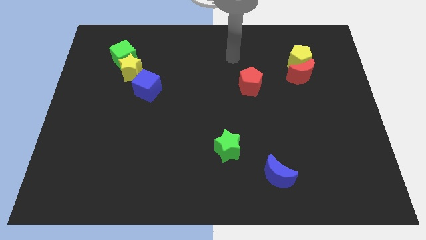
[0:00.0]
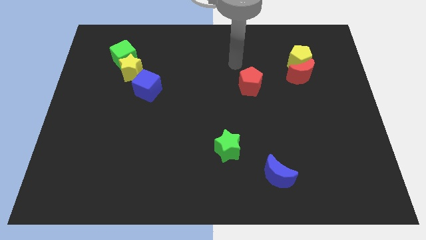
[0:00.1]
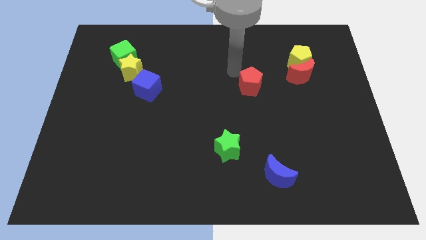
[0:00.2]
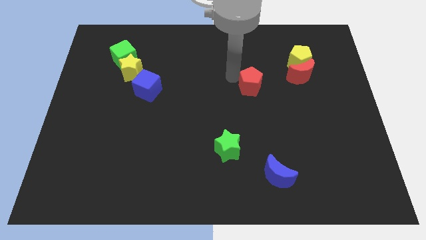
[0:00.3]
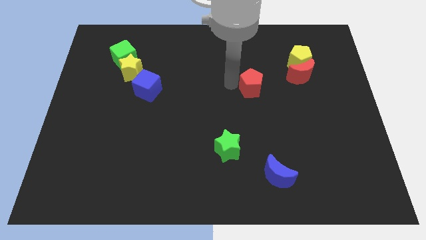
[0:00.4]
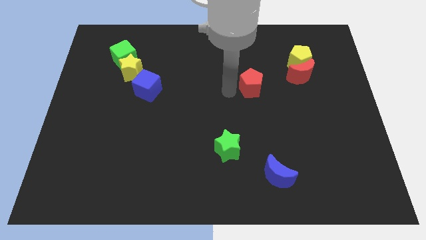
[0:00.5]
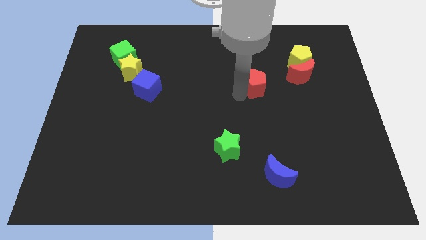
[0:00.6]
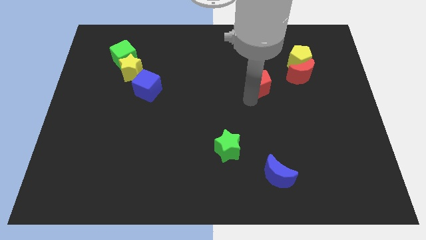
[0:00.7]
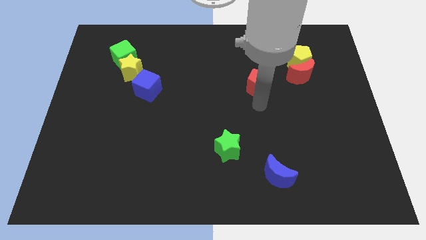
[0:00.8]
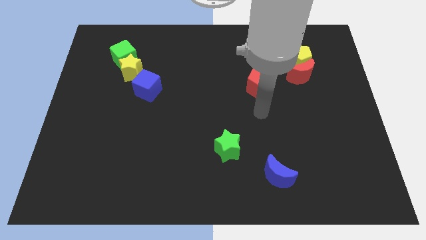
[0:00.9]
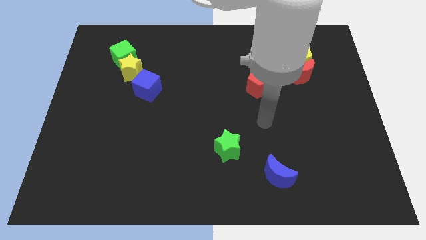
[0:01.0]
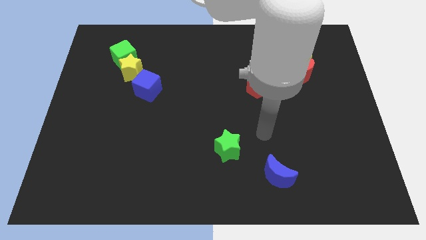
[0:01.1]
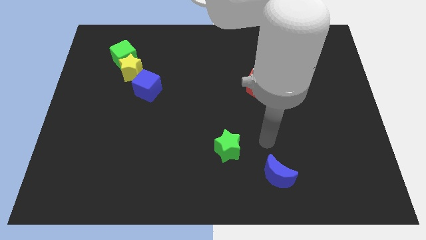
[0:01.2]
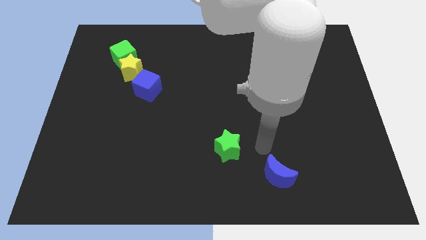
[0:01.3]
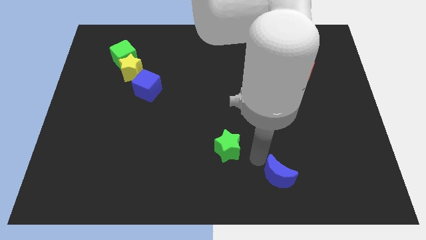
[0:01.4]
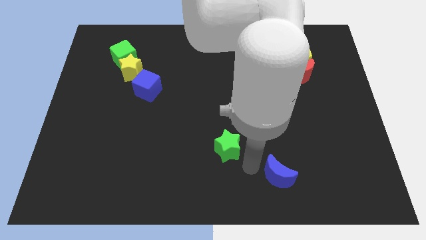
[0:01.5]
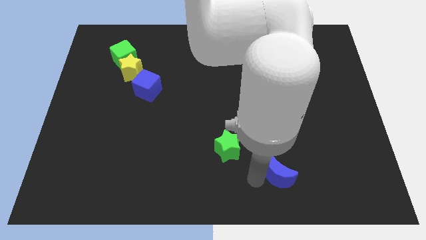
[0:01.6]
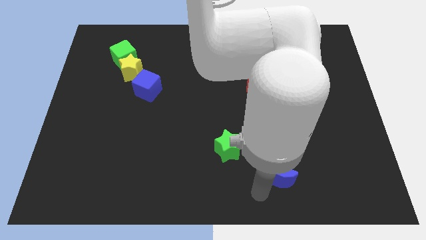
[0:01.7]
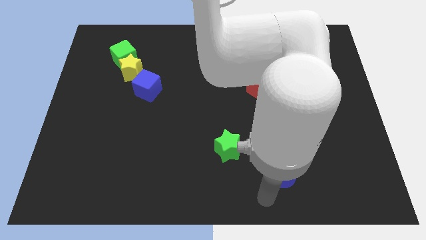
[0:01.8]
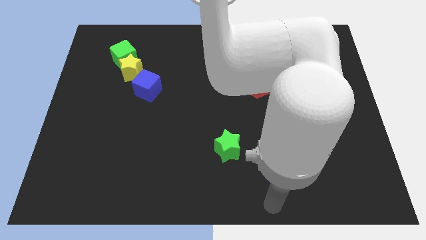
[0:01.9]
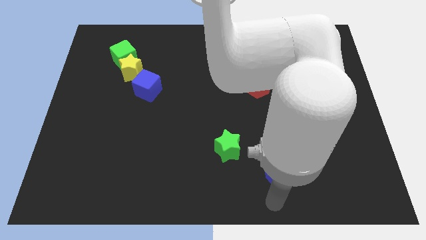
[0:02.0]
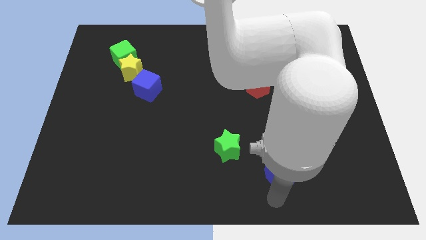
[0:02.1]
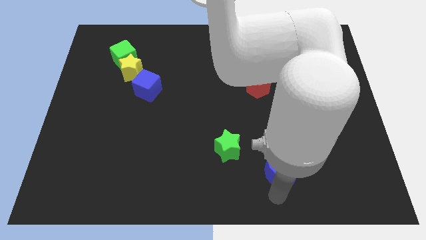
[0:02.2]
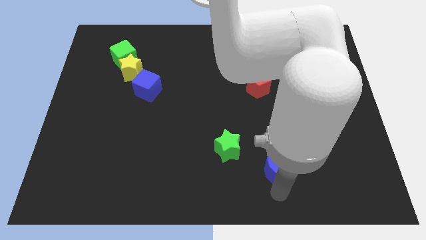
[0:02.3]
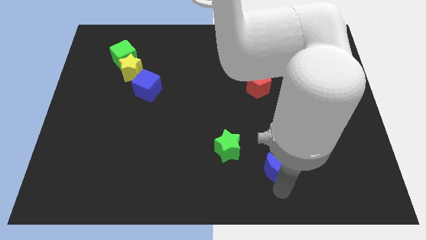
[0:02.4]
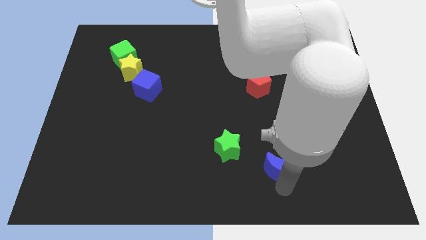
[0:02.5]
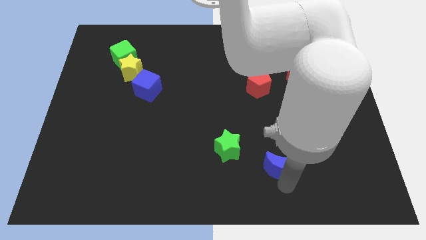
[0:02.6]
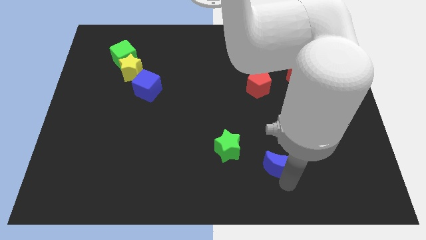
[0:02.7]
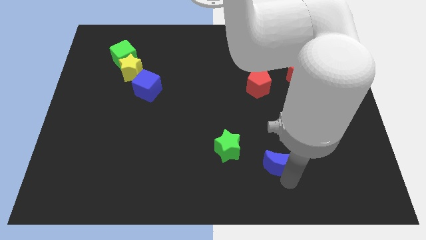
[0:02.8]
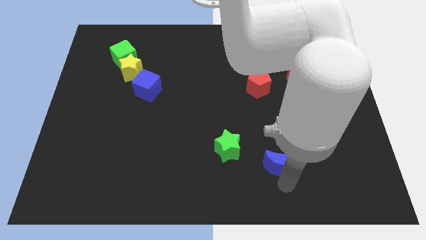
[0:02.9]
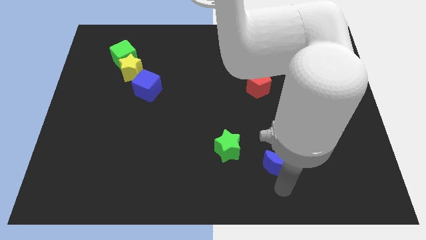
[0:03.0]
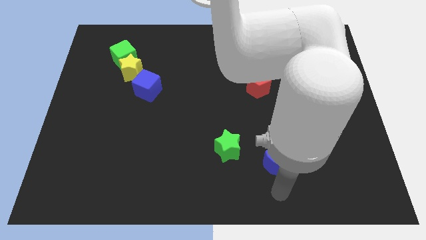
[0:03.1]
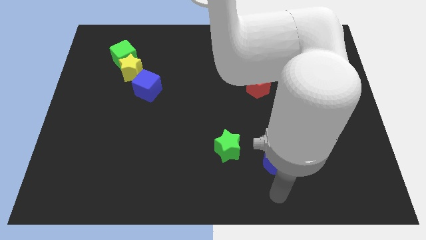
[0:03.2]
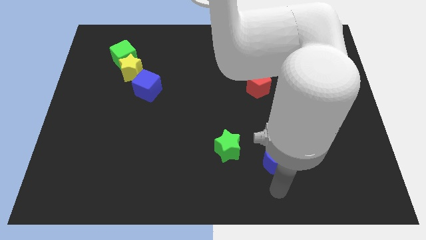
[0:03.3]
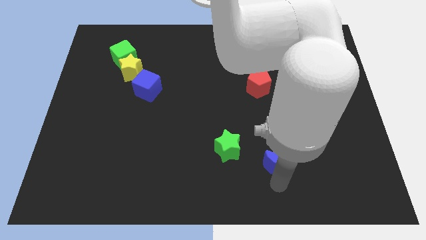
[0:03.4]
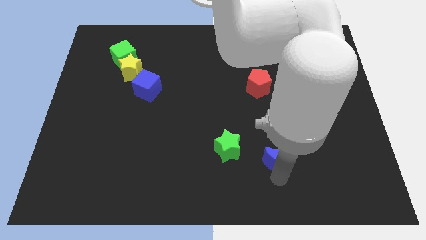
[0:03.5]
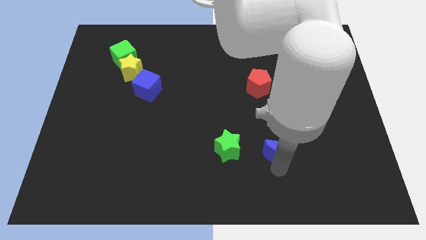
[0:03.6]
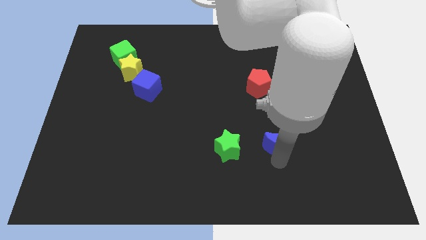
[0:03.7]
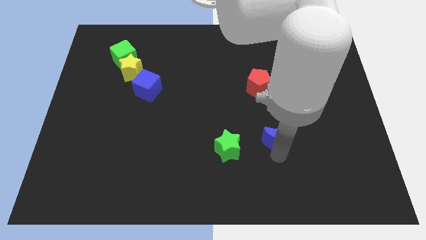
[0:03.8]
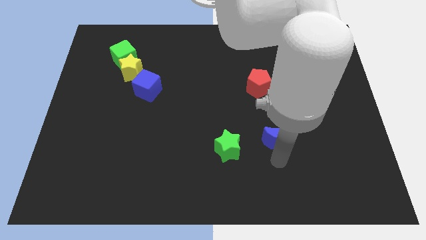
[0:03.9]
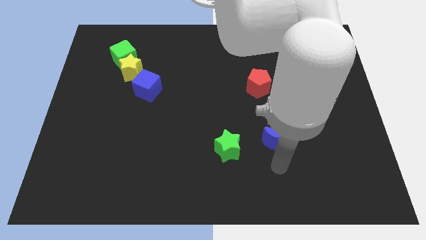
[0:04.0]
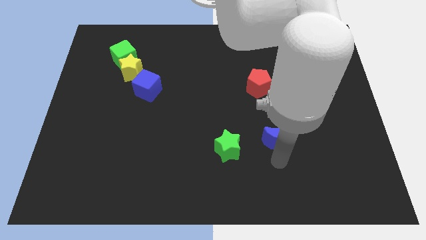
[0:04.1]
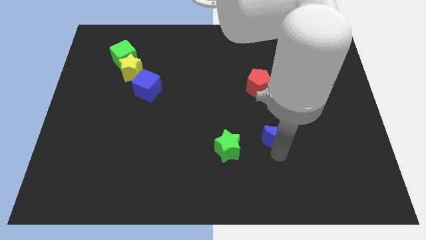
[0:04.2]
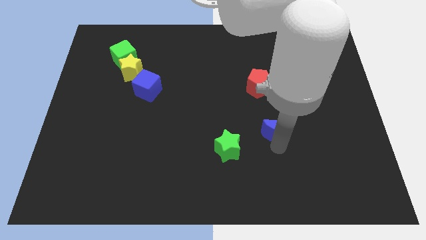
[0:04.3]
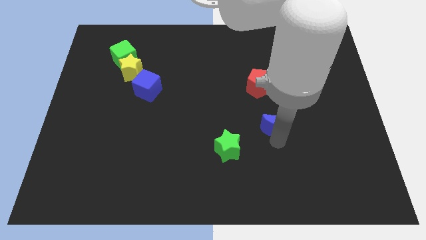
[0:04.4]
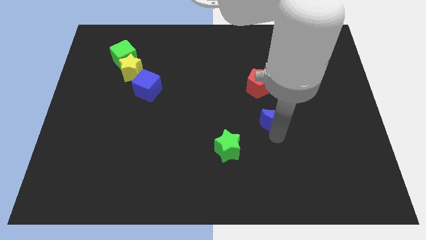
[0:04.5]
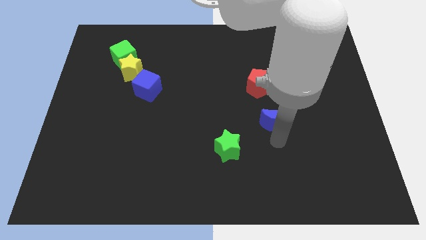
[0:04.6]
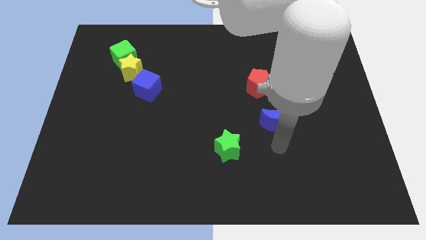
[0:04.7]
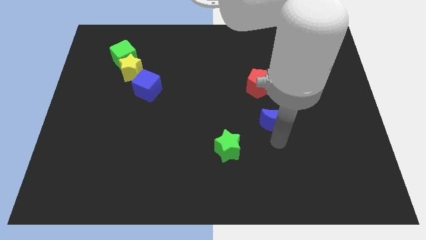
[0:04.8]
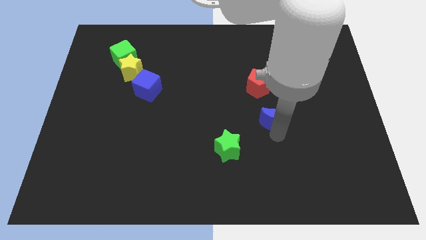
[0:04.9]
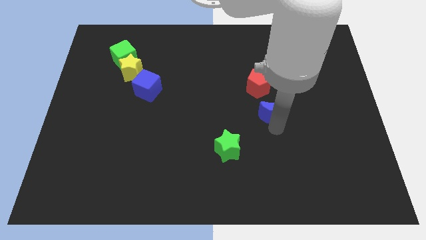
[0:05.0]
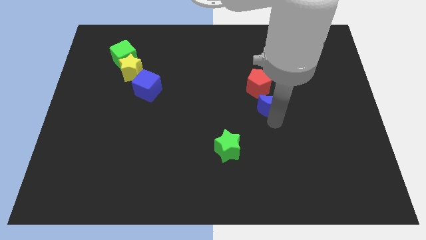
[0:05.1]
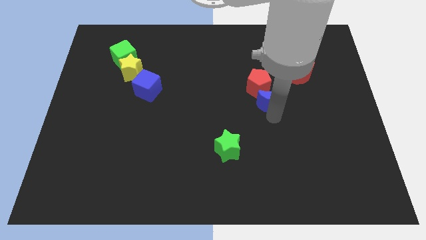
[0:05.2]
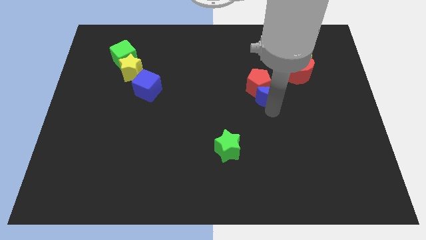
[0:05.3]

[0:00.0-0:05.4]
push the blue moon upwards

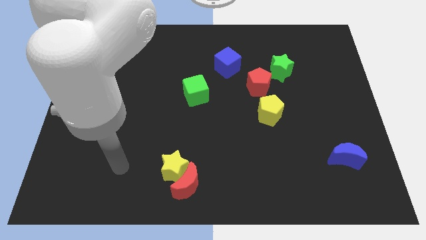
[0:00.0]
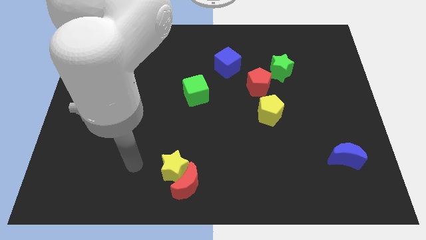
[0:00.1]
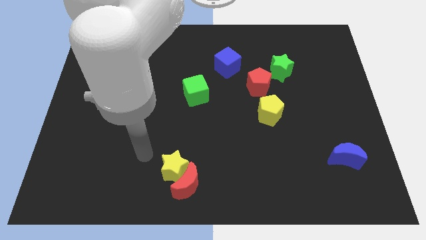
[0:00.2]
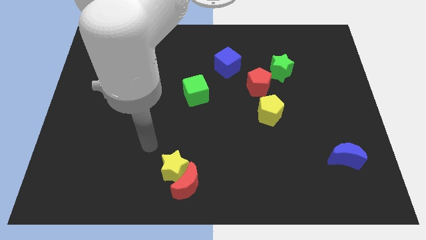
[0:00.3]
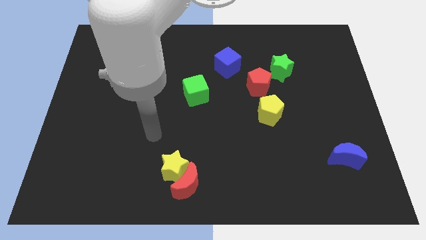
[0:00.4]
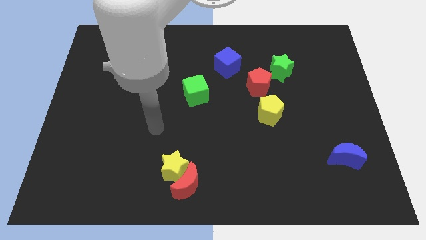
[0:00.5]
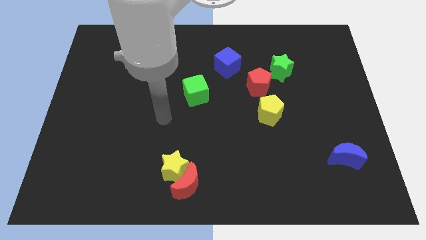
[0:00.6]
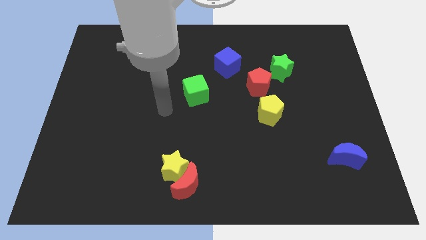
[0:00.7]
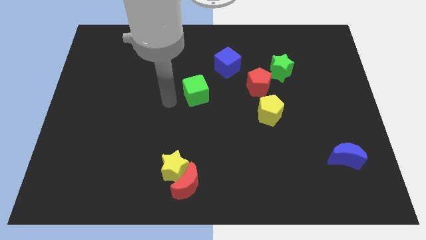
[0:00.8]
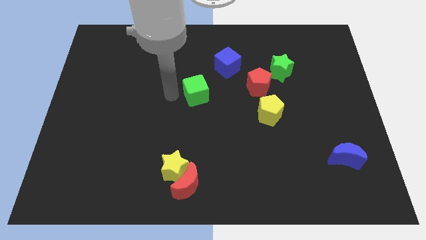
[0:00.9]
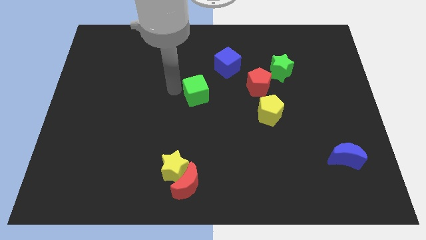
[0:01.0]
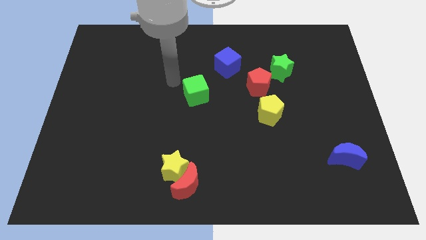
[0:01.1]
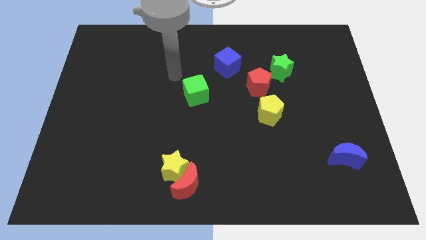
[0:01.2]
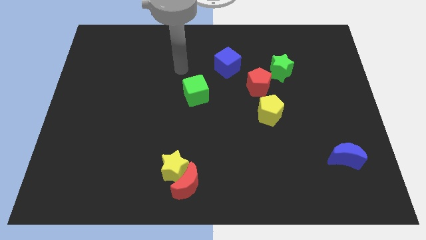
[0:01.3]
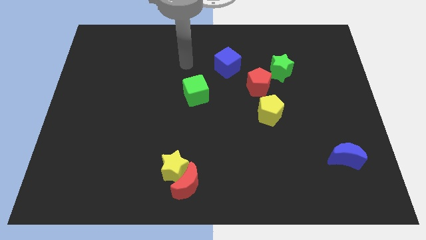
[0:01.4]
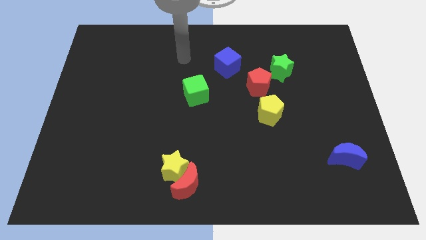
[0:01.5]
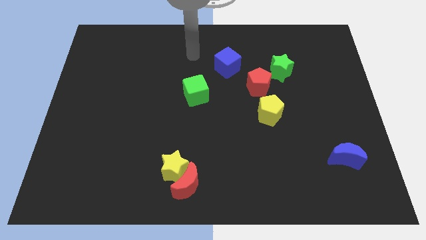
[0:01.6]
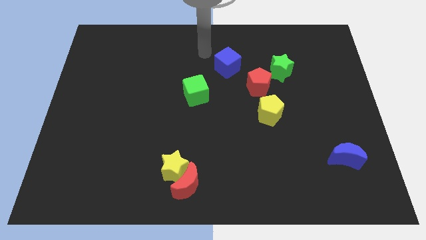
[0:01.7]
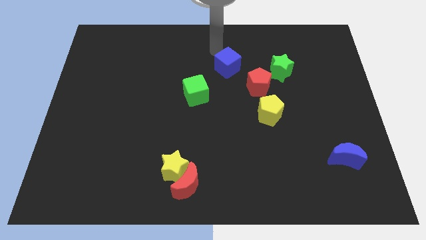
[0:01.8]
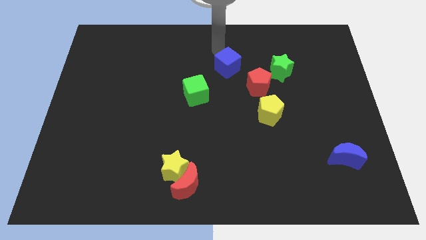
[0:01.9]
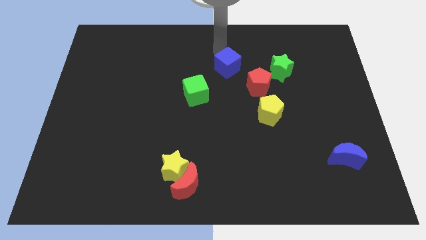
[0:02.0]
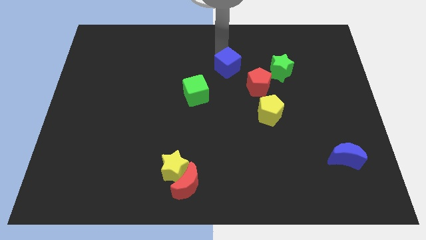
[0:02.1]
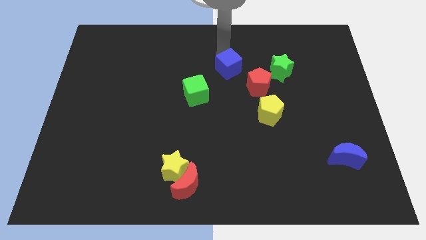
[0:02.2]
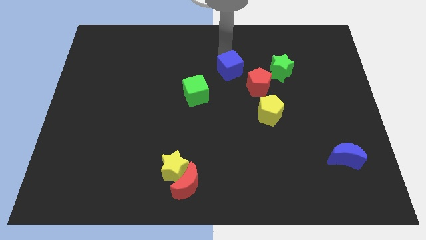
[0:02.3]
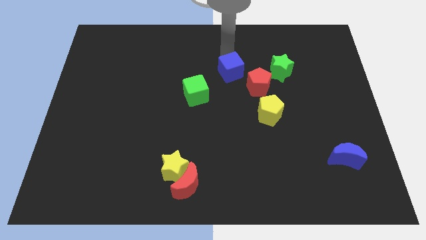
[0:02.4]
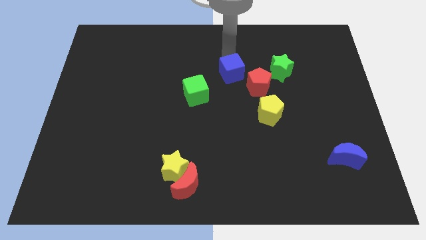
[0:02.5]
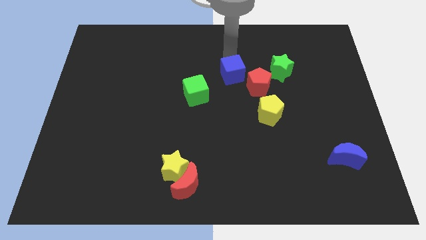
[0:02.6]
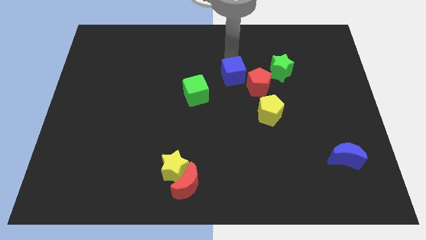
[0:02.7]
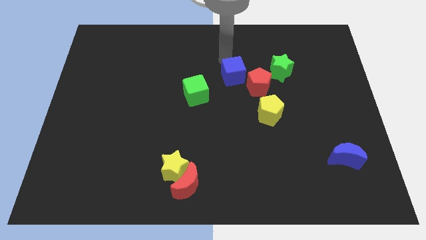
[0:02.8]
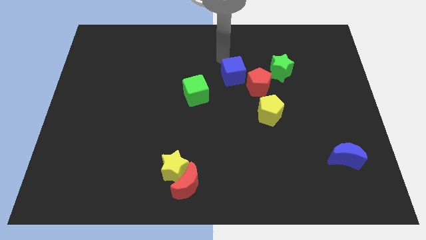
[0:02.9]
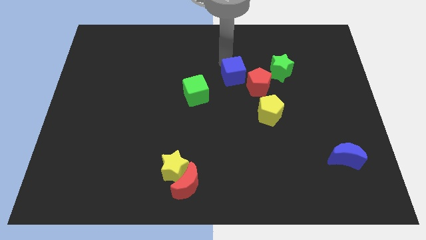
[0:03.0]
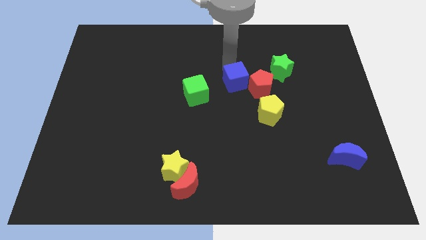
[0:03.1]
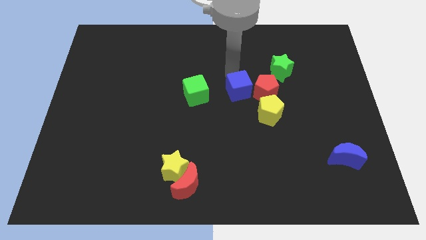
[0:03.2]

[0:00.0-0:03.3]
slide the blue cube down and to the right somewhat
